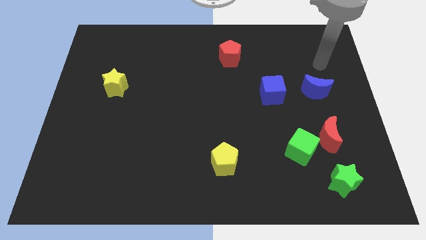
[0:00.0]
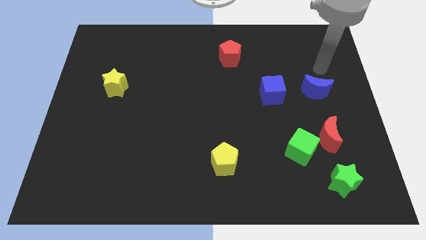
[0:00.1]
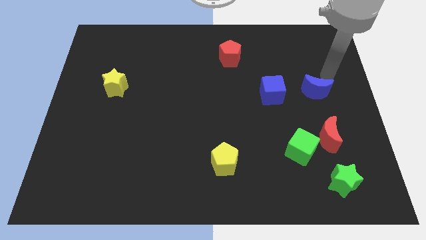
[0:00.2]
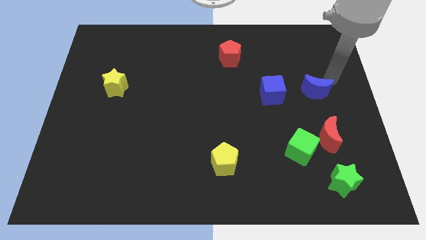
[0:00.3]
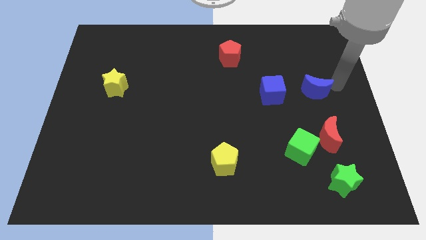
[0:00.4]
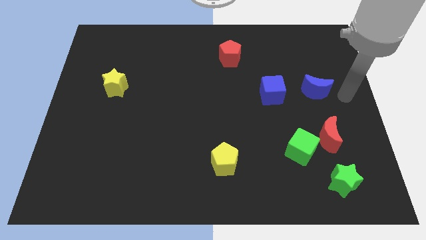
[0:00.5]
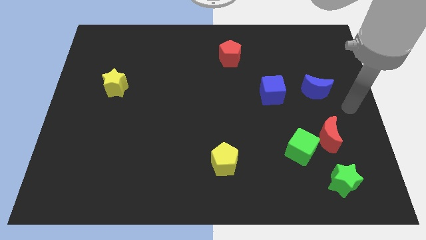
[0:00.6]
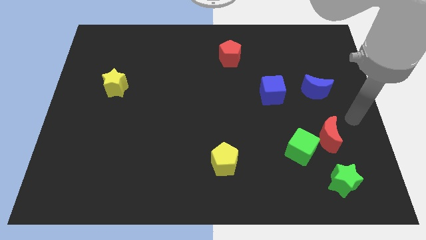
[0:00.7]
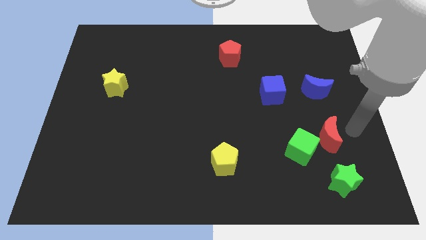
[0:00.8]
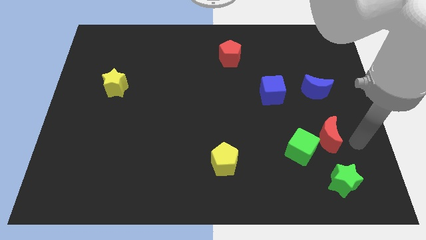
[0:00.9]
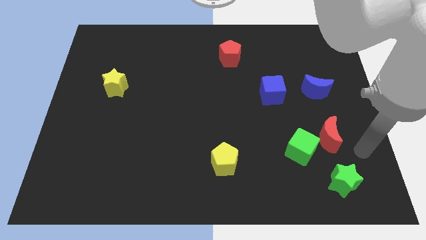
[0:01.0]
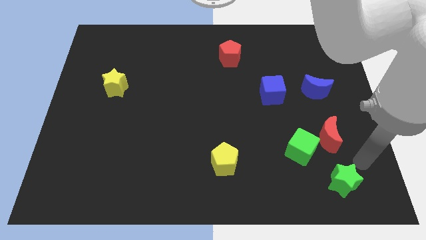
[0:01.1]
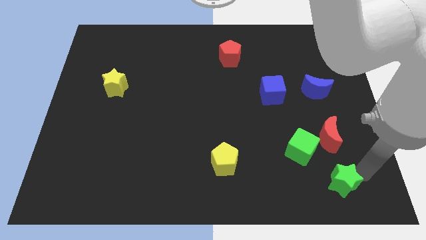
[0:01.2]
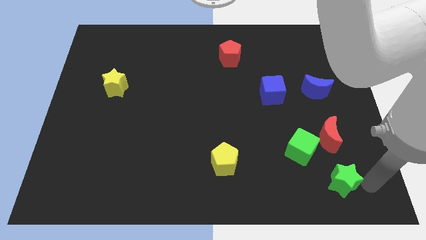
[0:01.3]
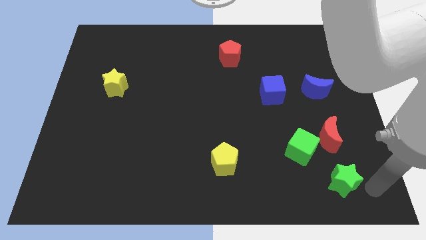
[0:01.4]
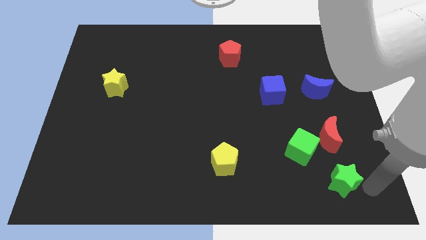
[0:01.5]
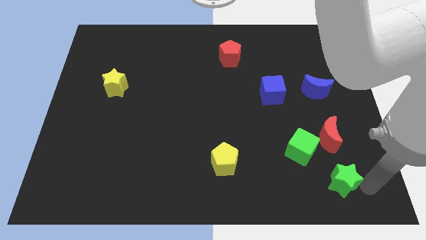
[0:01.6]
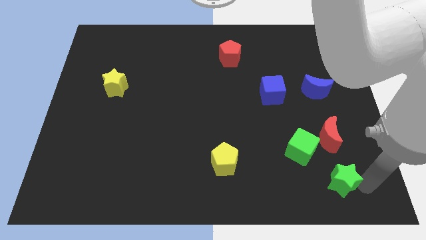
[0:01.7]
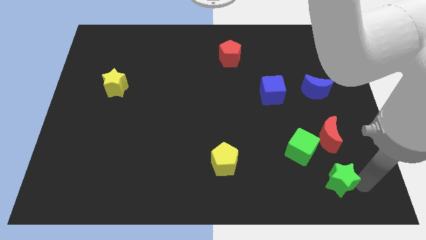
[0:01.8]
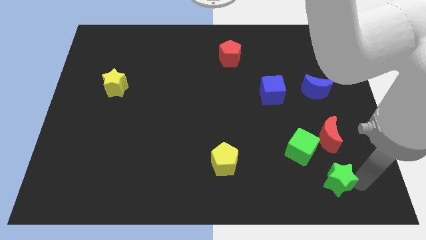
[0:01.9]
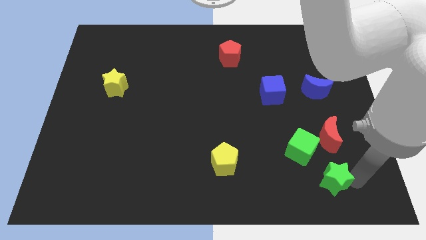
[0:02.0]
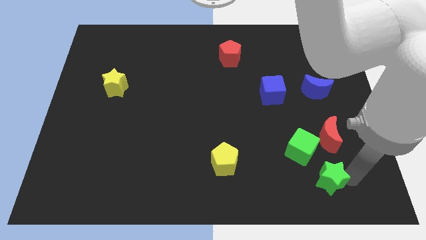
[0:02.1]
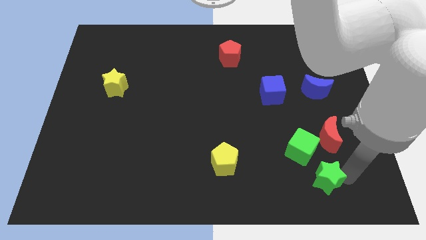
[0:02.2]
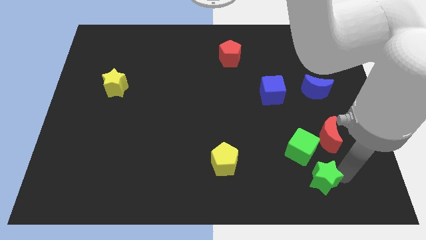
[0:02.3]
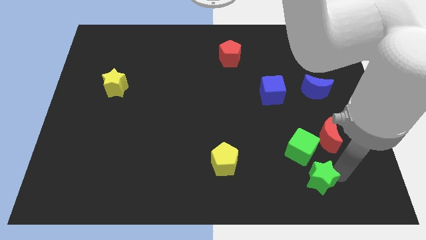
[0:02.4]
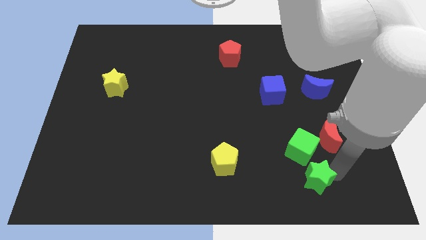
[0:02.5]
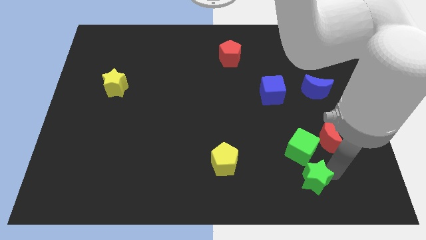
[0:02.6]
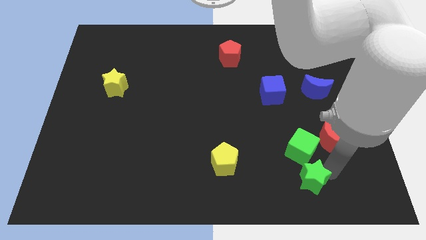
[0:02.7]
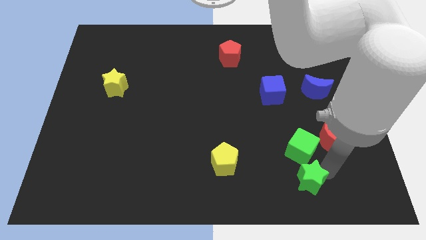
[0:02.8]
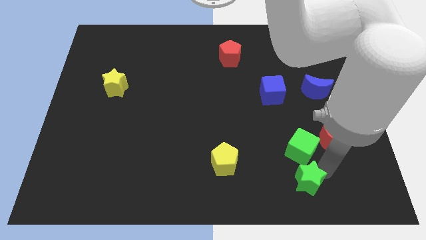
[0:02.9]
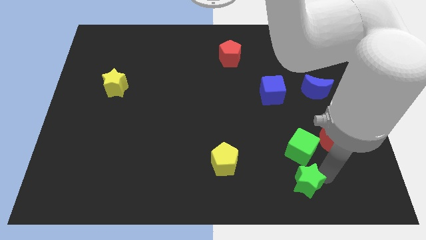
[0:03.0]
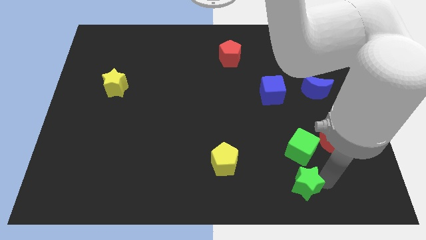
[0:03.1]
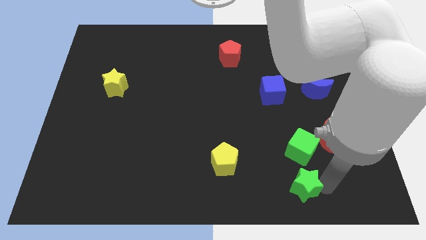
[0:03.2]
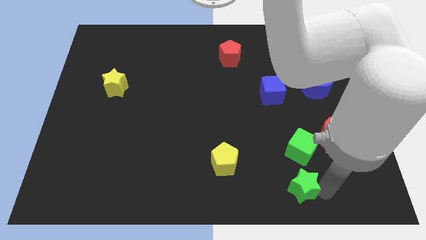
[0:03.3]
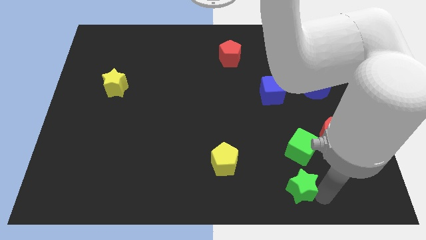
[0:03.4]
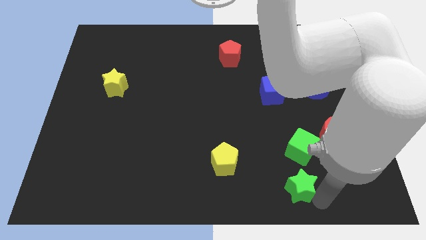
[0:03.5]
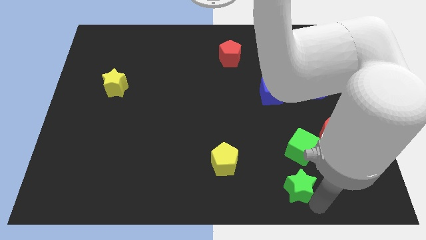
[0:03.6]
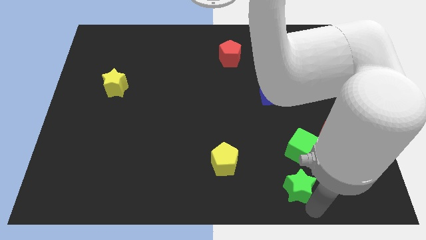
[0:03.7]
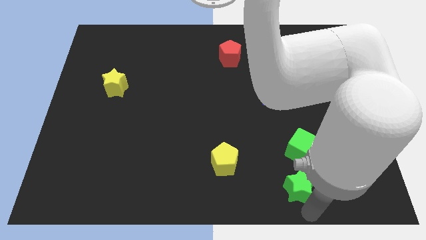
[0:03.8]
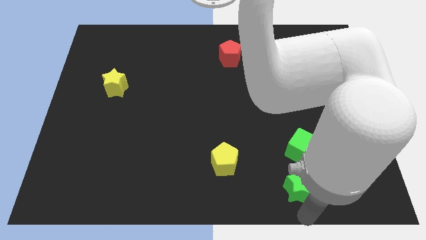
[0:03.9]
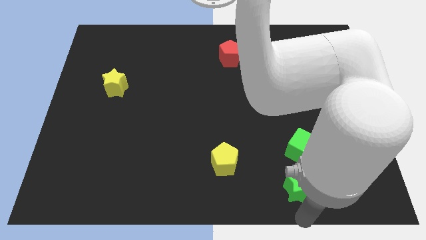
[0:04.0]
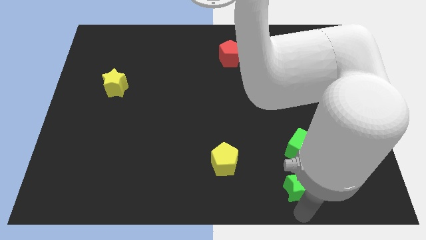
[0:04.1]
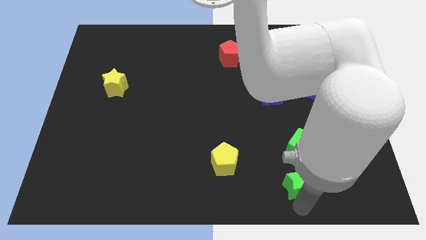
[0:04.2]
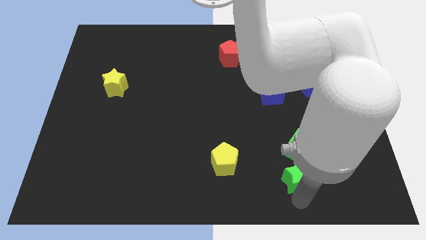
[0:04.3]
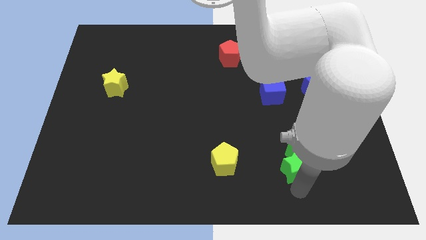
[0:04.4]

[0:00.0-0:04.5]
move the green star up and then left a little

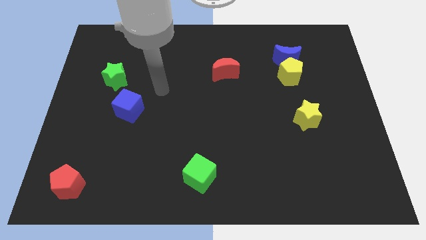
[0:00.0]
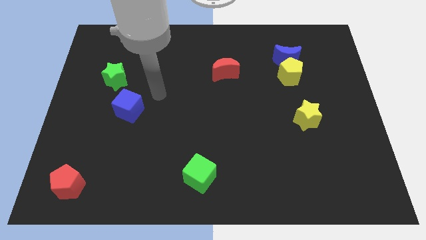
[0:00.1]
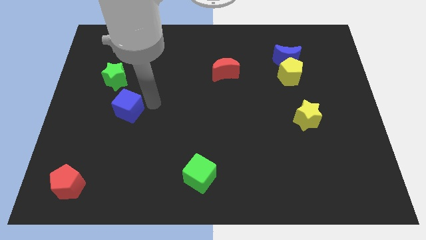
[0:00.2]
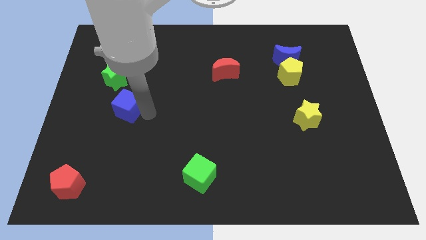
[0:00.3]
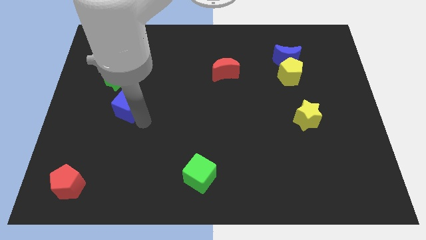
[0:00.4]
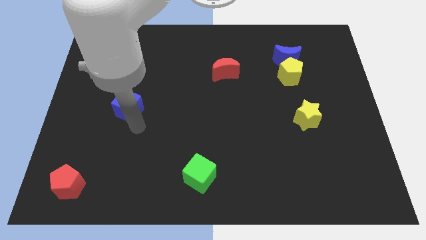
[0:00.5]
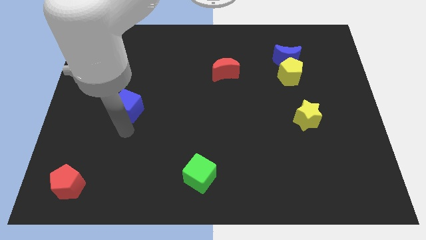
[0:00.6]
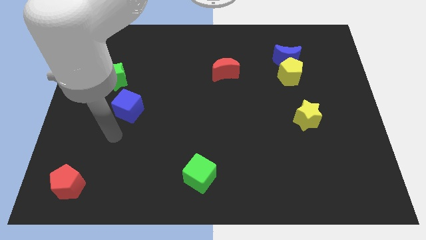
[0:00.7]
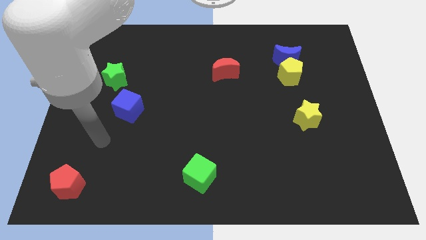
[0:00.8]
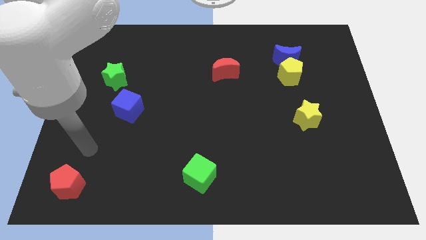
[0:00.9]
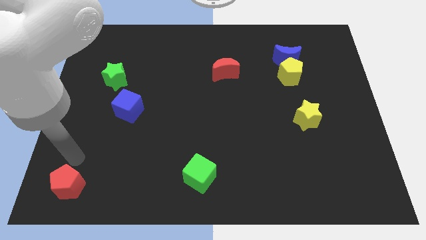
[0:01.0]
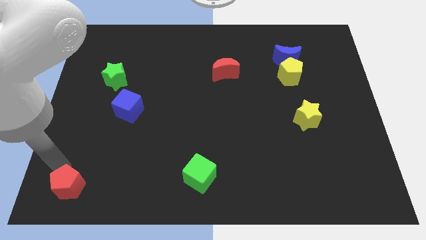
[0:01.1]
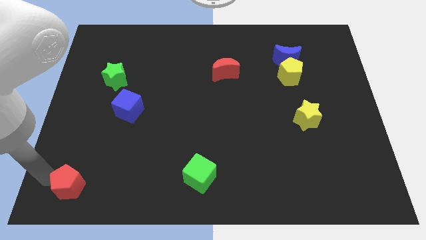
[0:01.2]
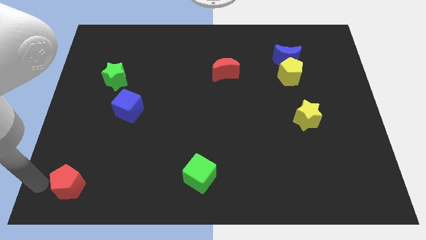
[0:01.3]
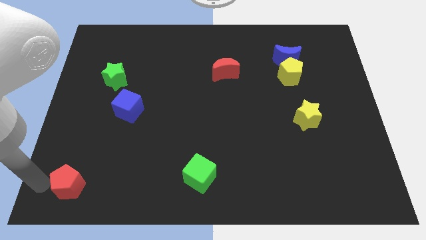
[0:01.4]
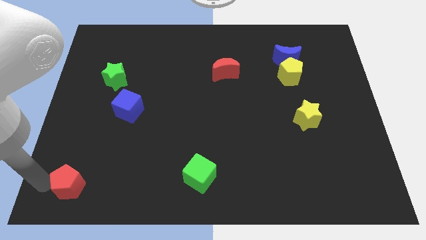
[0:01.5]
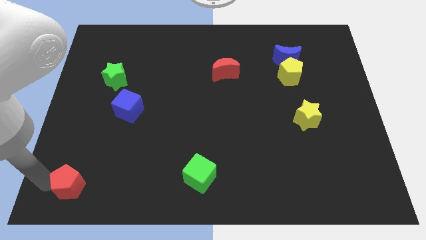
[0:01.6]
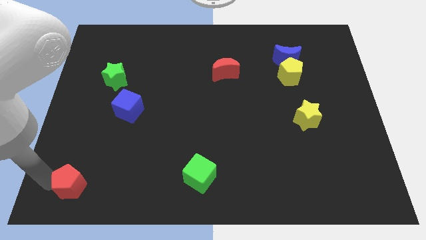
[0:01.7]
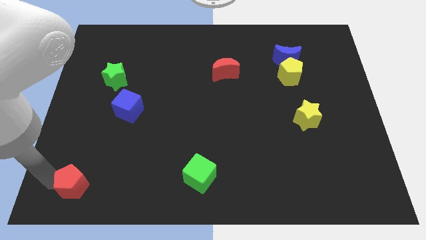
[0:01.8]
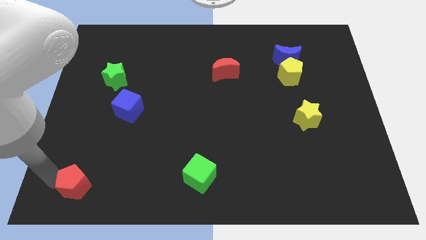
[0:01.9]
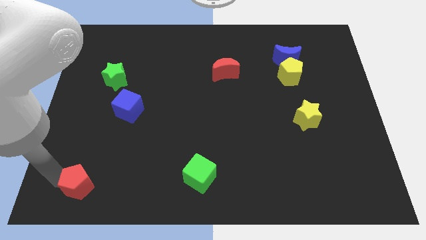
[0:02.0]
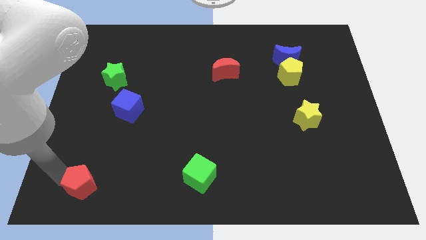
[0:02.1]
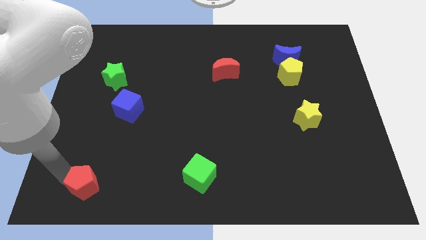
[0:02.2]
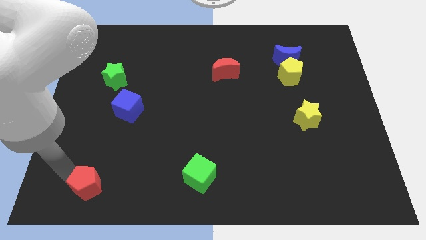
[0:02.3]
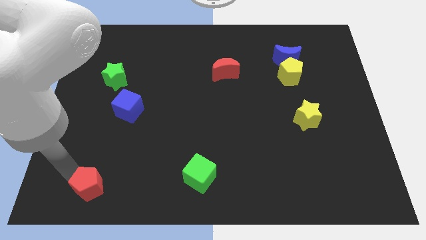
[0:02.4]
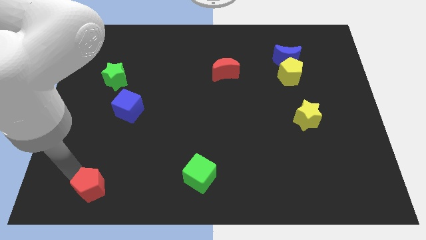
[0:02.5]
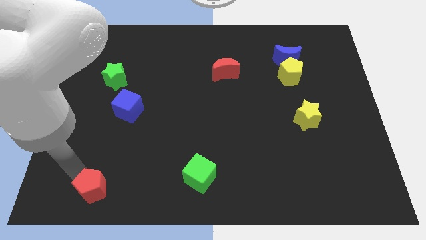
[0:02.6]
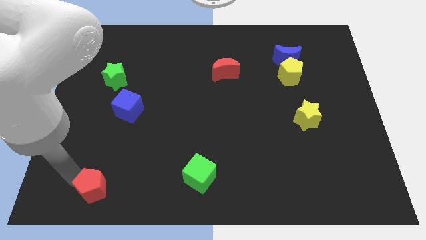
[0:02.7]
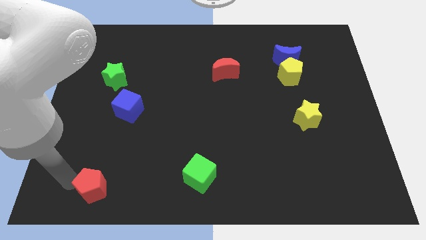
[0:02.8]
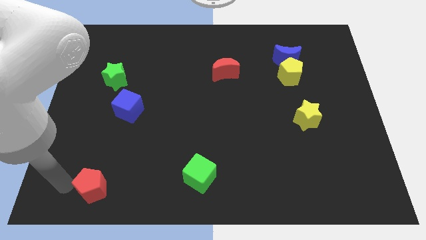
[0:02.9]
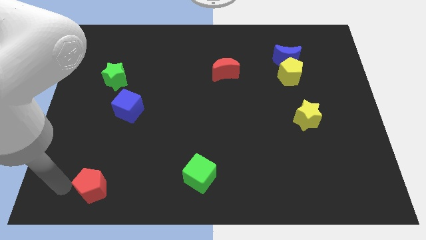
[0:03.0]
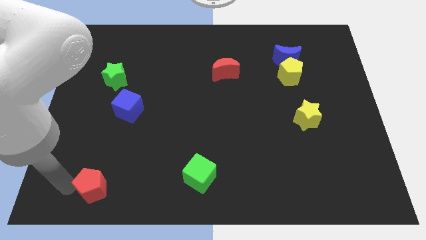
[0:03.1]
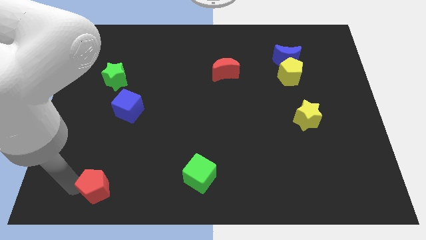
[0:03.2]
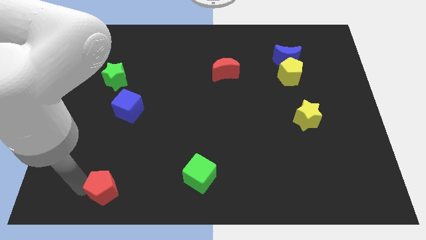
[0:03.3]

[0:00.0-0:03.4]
move the red pentagon right a little

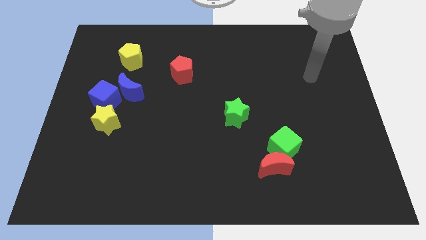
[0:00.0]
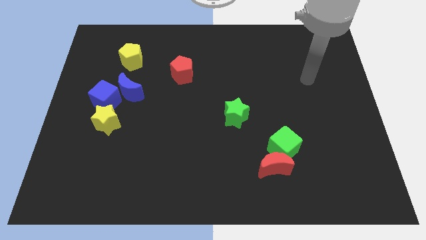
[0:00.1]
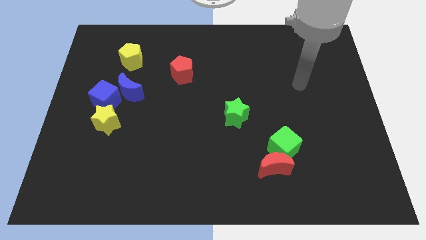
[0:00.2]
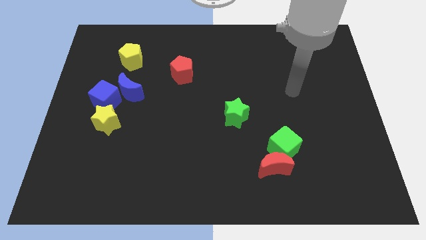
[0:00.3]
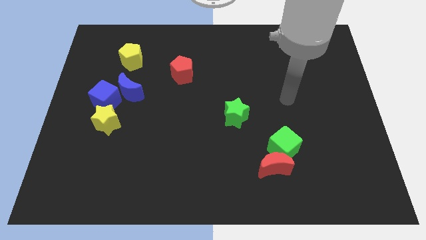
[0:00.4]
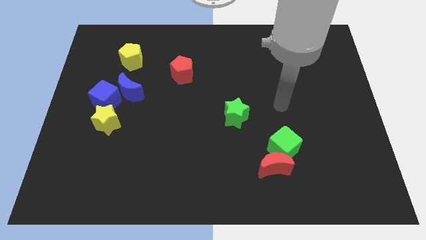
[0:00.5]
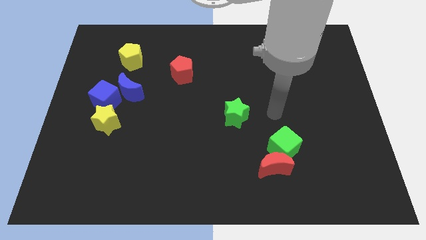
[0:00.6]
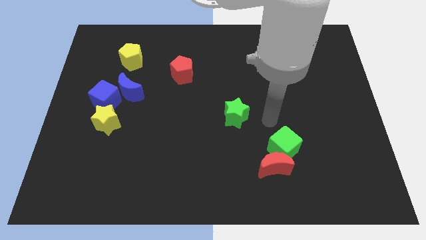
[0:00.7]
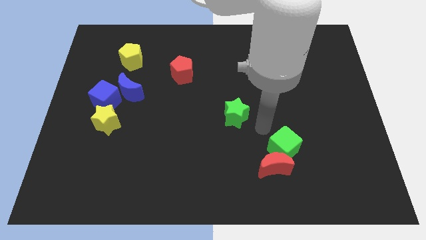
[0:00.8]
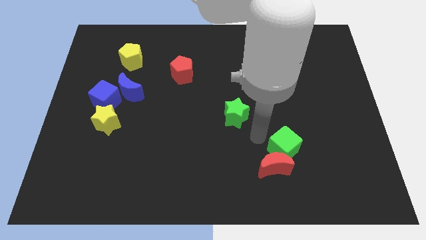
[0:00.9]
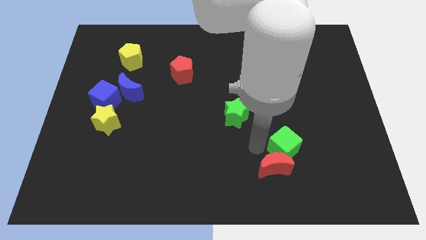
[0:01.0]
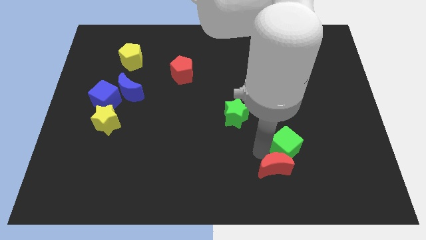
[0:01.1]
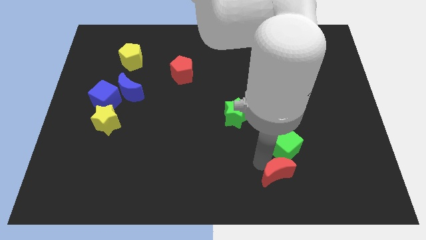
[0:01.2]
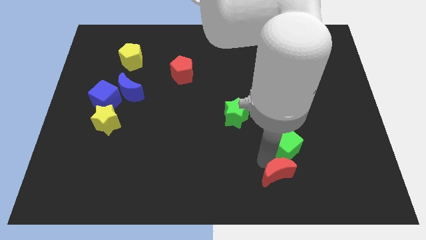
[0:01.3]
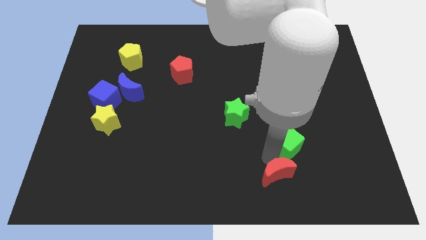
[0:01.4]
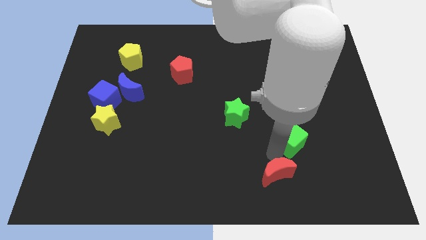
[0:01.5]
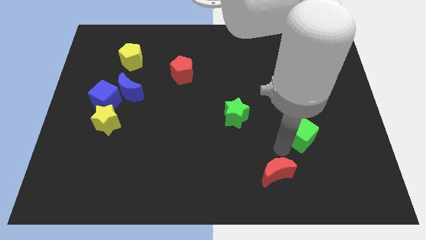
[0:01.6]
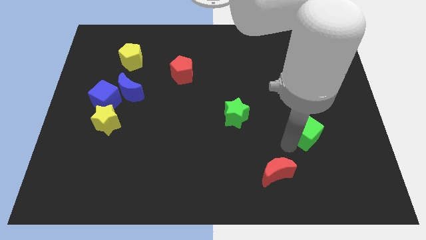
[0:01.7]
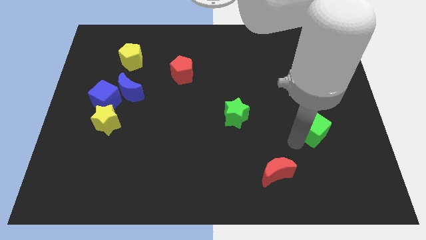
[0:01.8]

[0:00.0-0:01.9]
slightly push the green cube diagonally up and to the right
